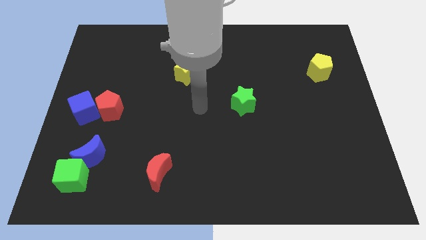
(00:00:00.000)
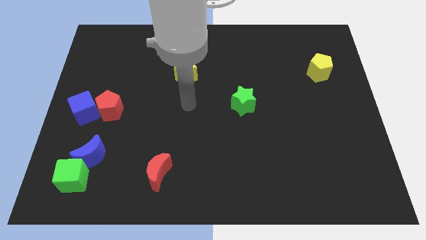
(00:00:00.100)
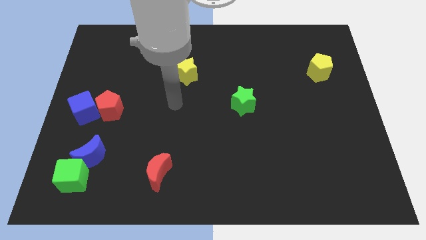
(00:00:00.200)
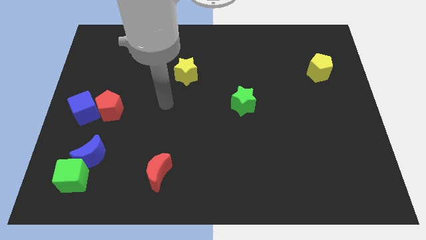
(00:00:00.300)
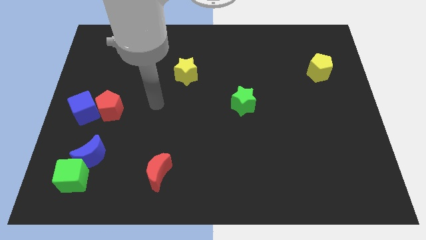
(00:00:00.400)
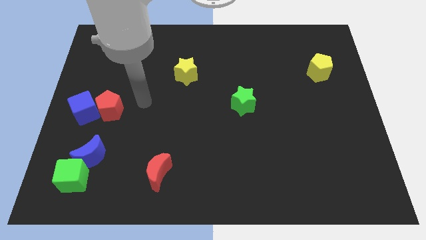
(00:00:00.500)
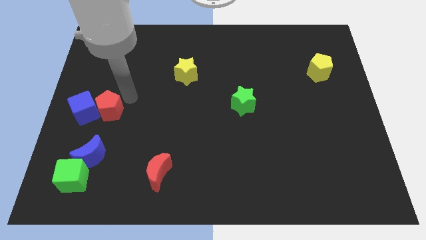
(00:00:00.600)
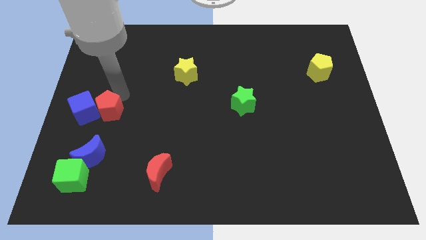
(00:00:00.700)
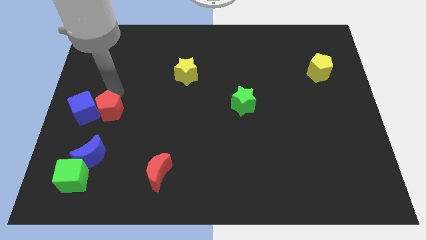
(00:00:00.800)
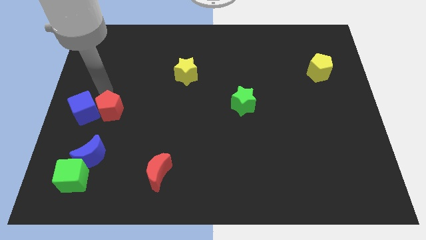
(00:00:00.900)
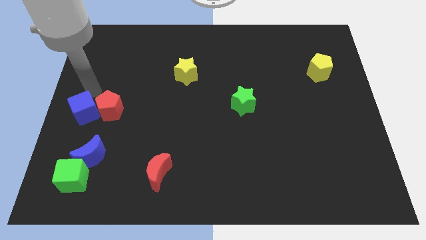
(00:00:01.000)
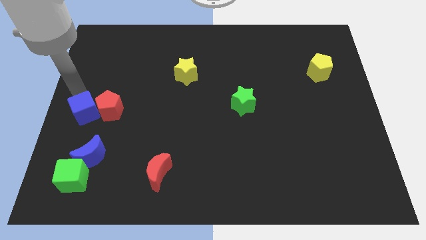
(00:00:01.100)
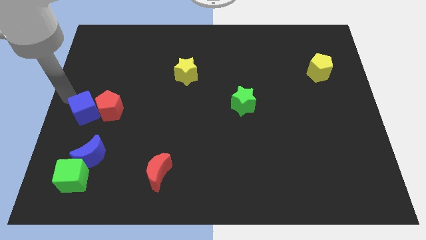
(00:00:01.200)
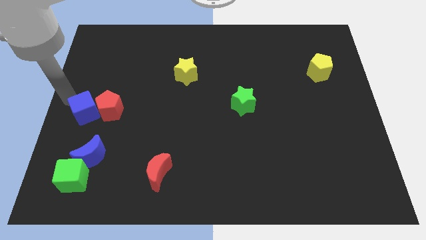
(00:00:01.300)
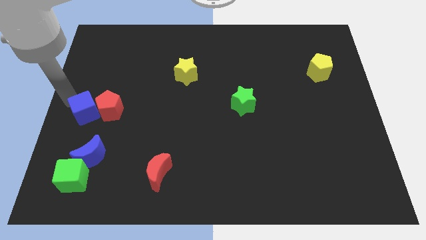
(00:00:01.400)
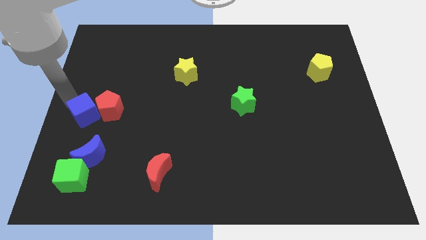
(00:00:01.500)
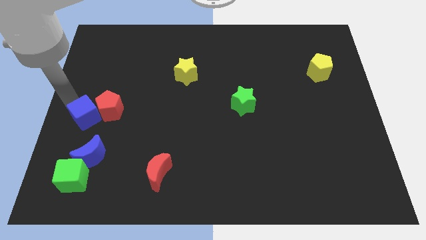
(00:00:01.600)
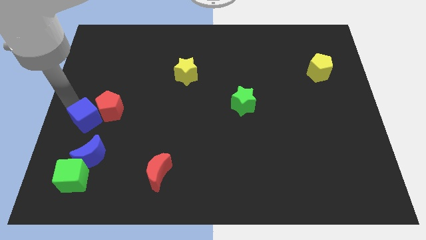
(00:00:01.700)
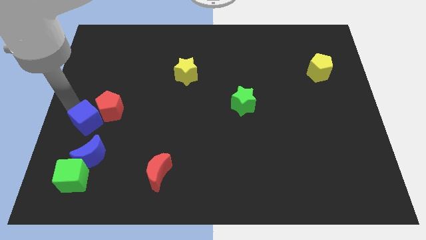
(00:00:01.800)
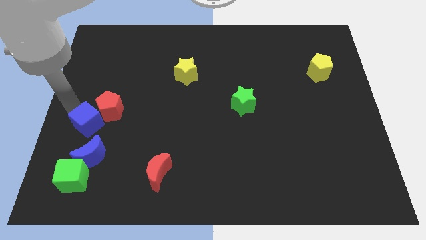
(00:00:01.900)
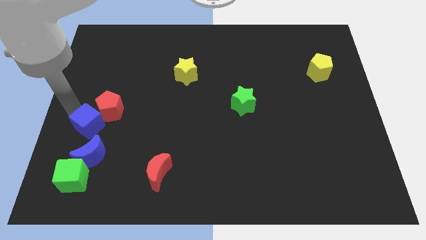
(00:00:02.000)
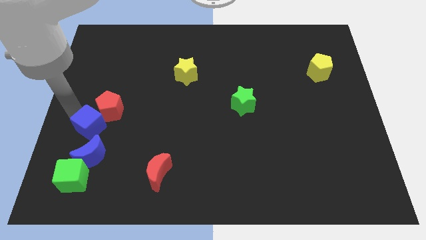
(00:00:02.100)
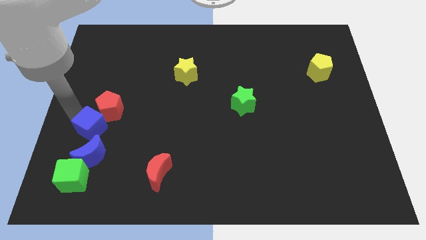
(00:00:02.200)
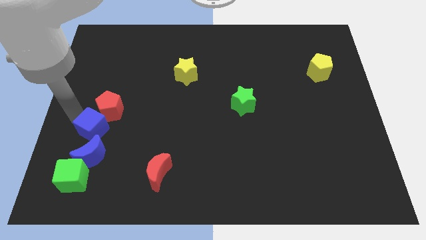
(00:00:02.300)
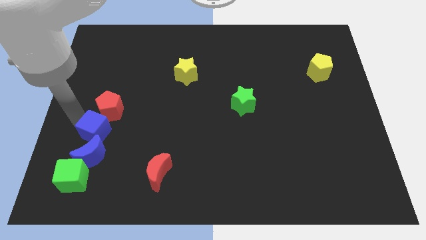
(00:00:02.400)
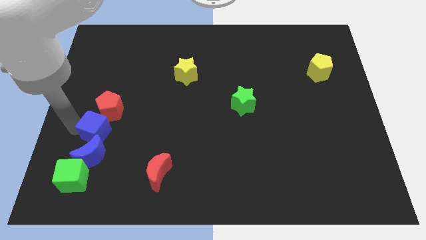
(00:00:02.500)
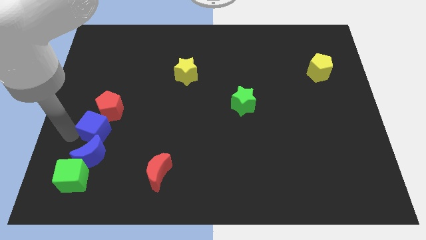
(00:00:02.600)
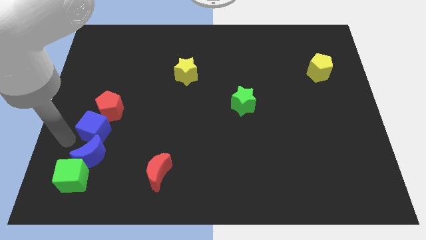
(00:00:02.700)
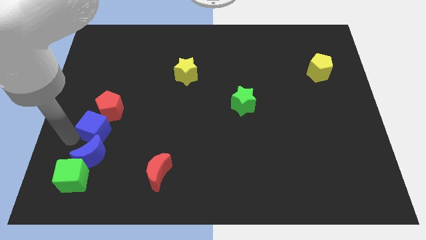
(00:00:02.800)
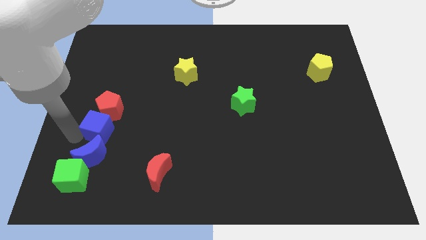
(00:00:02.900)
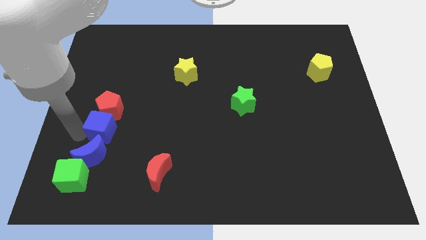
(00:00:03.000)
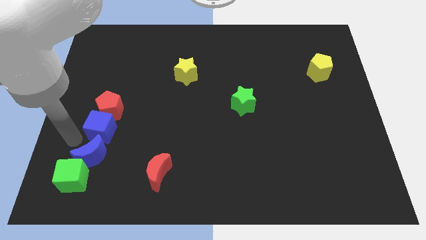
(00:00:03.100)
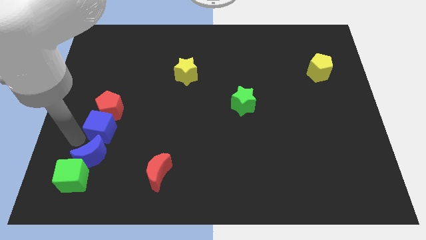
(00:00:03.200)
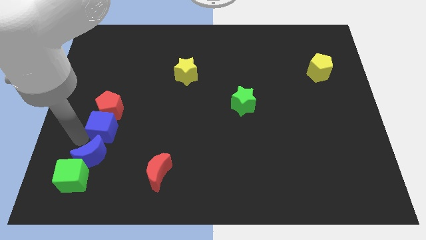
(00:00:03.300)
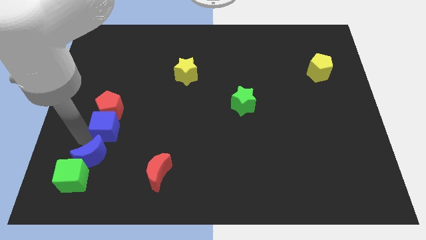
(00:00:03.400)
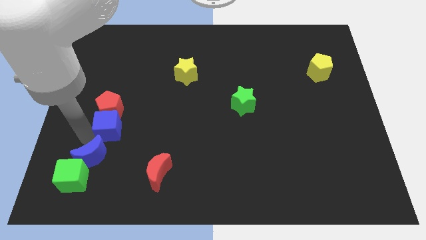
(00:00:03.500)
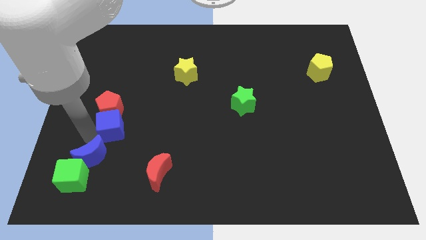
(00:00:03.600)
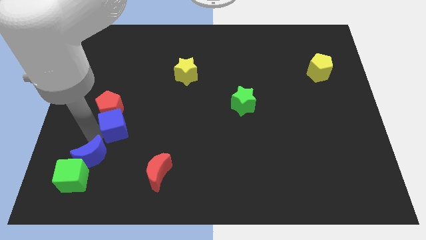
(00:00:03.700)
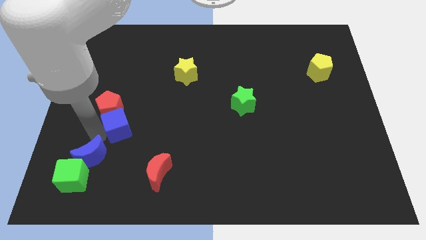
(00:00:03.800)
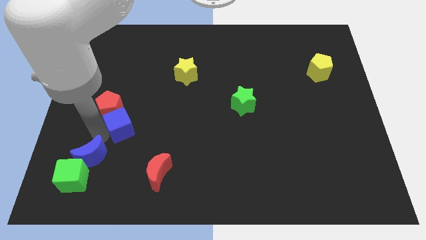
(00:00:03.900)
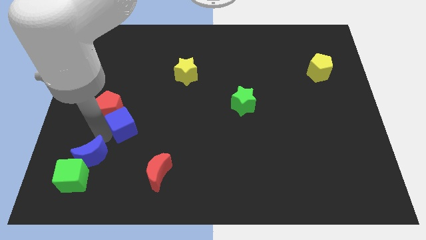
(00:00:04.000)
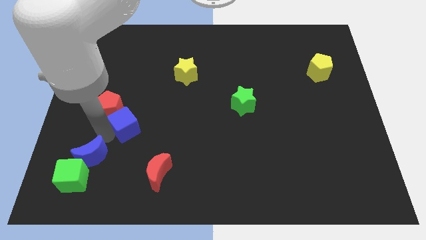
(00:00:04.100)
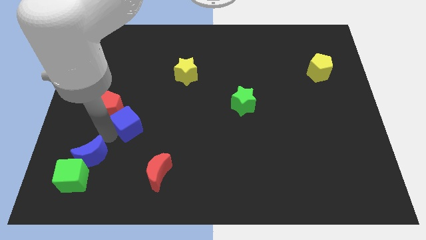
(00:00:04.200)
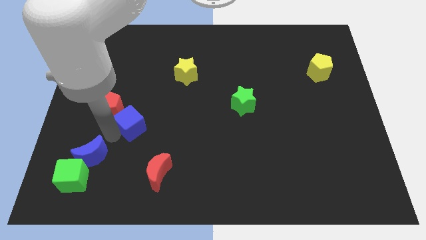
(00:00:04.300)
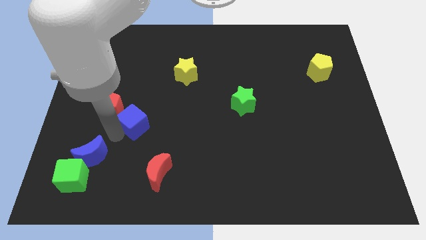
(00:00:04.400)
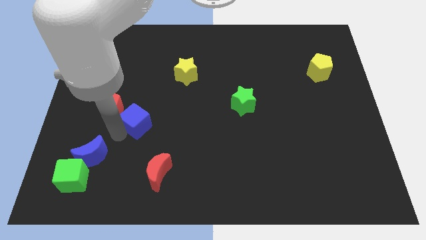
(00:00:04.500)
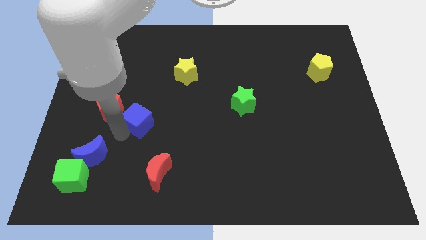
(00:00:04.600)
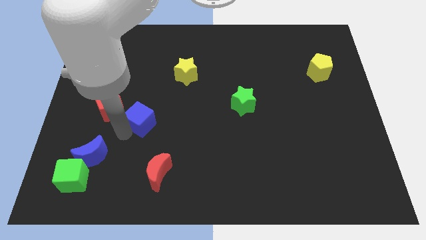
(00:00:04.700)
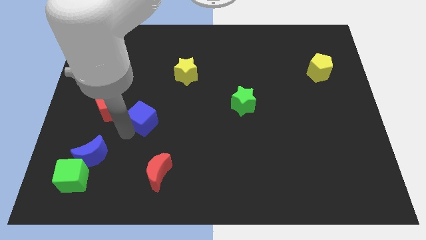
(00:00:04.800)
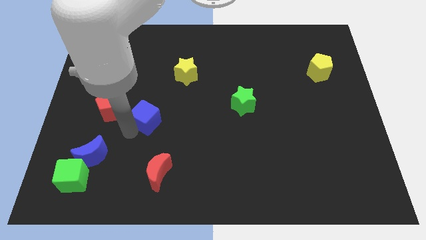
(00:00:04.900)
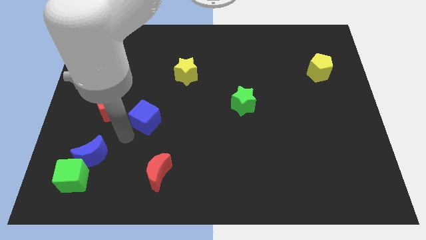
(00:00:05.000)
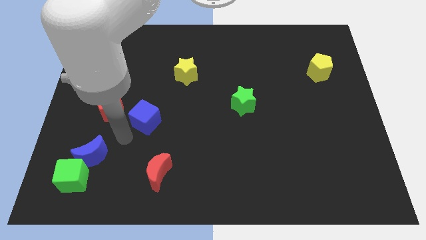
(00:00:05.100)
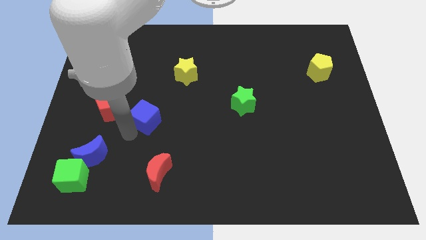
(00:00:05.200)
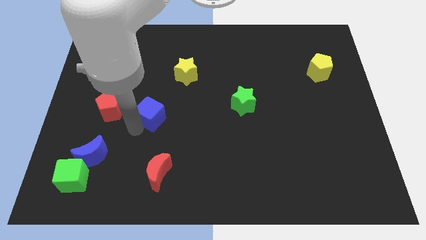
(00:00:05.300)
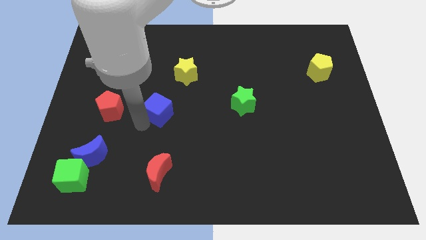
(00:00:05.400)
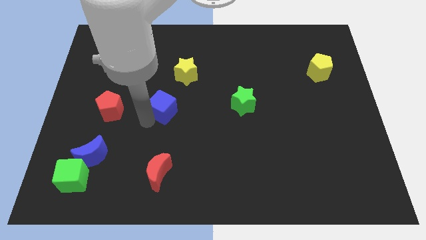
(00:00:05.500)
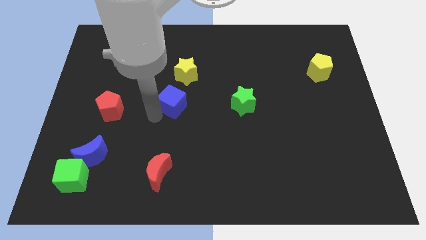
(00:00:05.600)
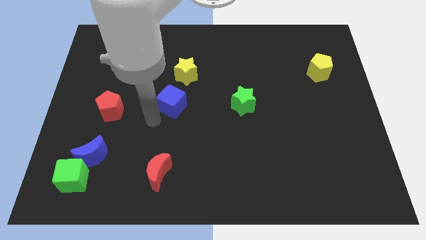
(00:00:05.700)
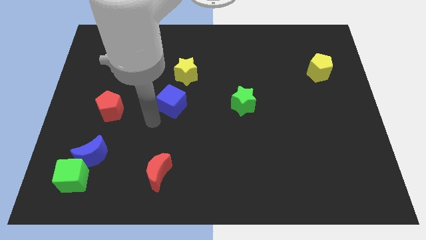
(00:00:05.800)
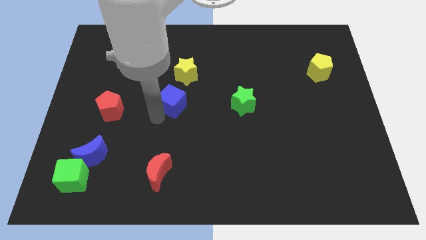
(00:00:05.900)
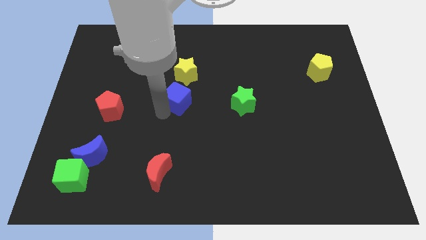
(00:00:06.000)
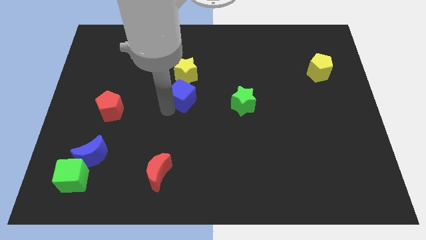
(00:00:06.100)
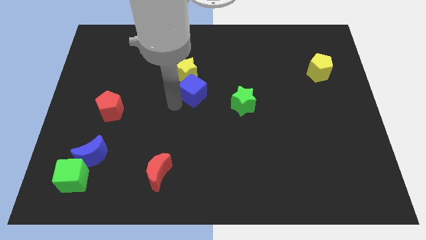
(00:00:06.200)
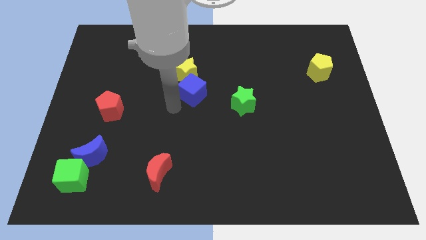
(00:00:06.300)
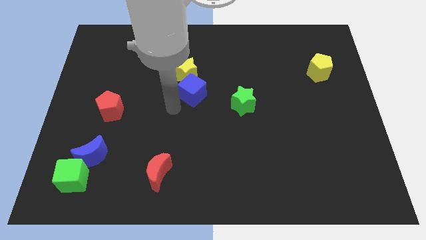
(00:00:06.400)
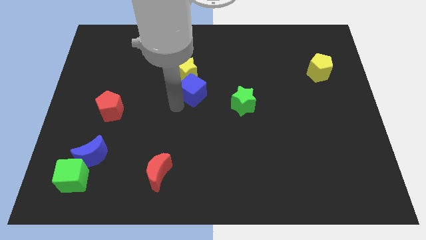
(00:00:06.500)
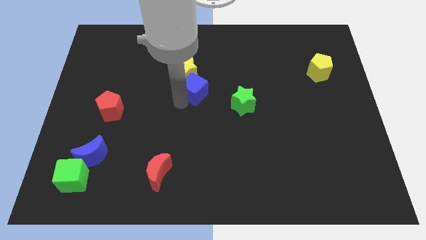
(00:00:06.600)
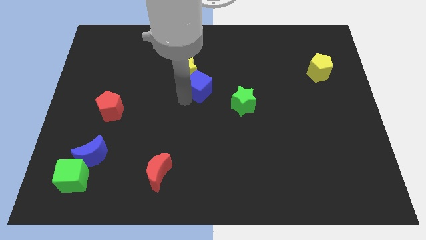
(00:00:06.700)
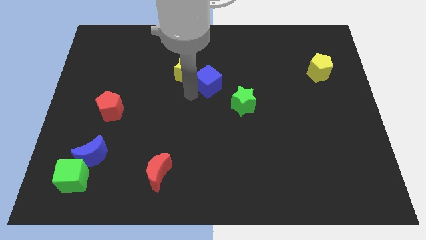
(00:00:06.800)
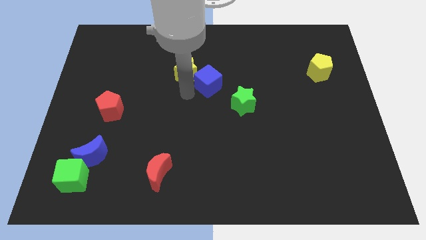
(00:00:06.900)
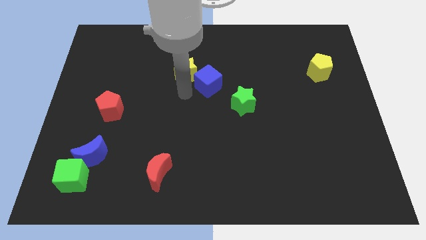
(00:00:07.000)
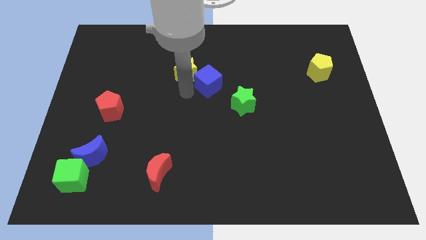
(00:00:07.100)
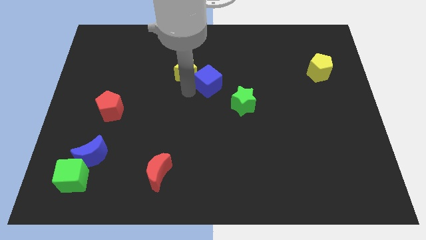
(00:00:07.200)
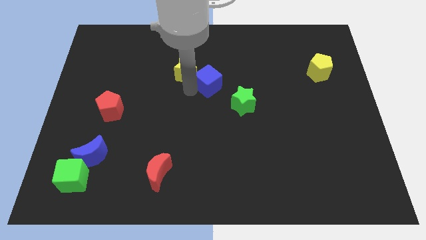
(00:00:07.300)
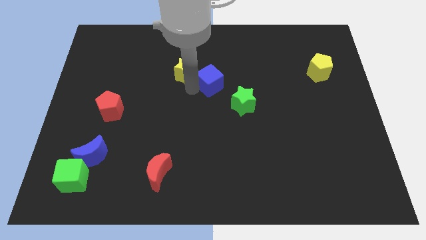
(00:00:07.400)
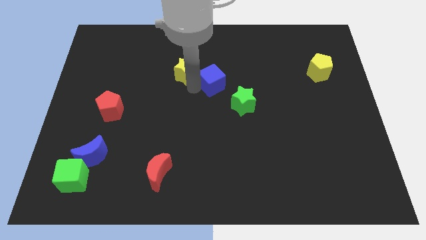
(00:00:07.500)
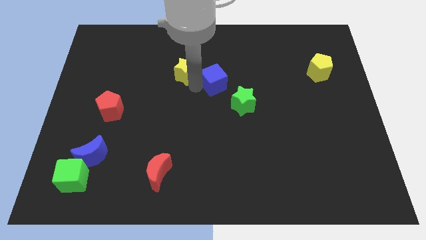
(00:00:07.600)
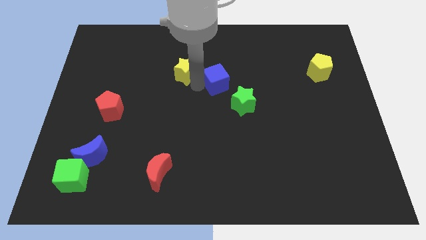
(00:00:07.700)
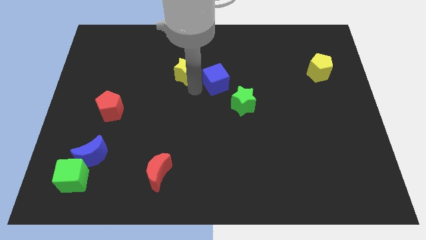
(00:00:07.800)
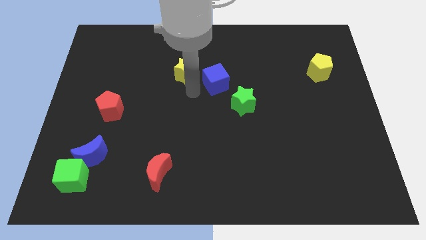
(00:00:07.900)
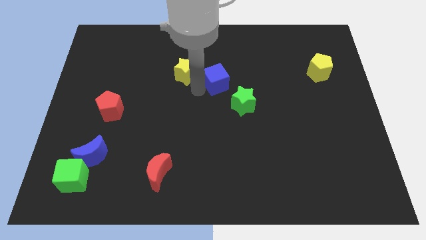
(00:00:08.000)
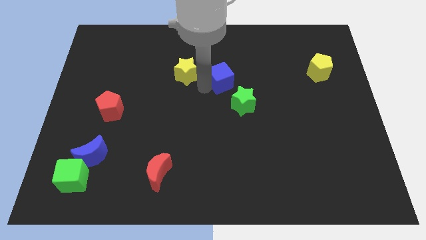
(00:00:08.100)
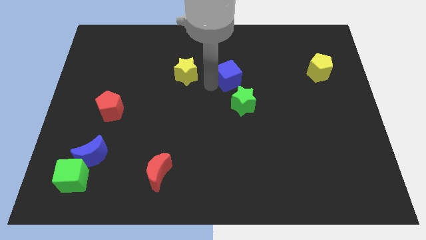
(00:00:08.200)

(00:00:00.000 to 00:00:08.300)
move the blue cube to the top of the green star
